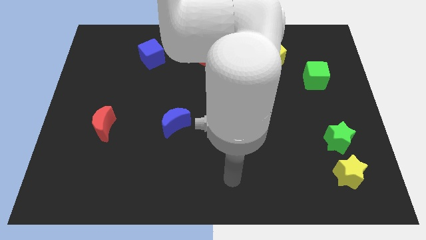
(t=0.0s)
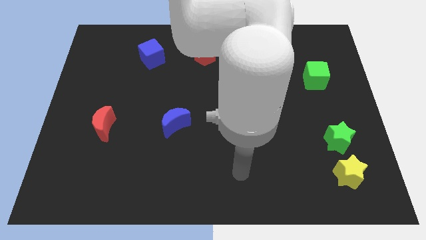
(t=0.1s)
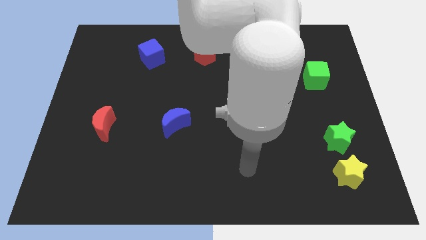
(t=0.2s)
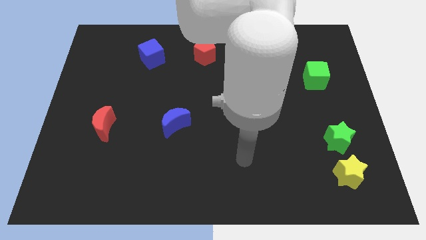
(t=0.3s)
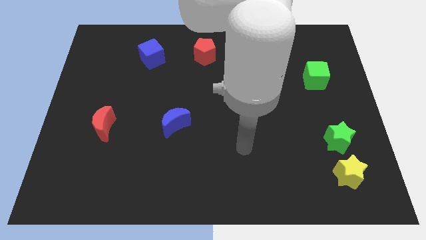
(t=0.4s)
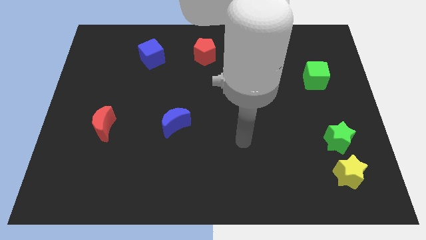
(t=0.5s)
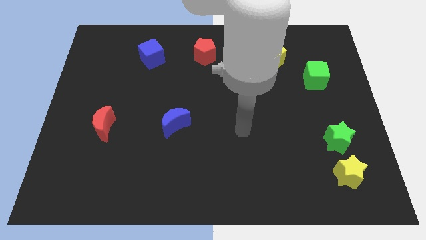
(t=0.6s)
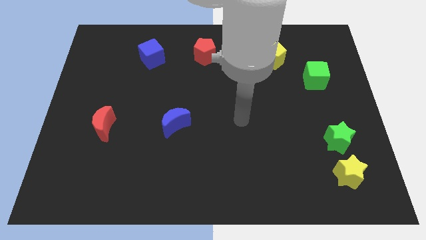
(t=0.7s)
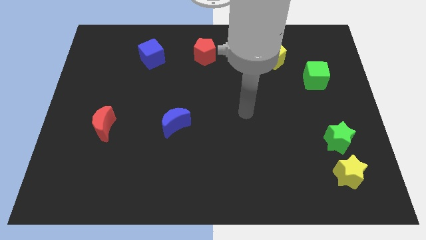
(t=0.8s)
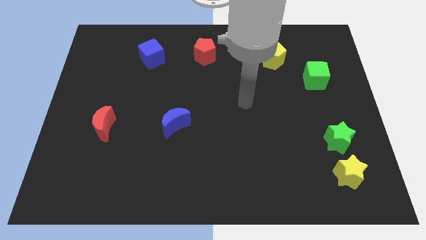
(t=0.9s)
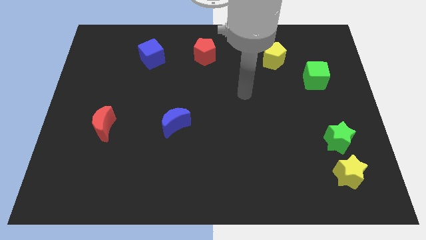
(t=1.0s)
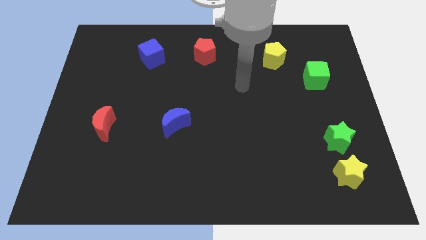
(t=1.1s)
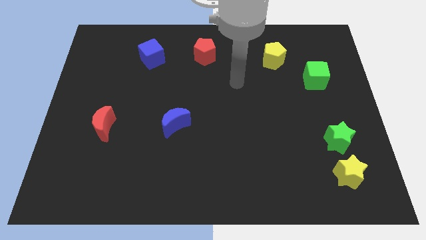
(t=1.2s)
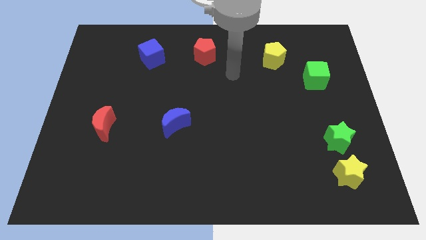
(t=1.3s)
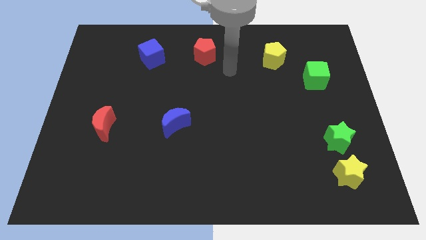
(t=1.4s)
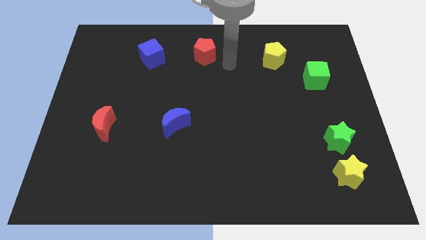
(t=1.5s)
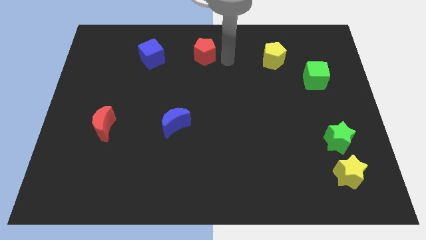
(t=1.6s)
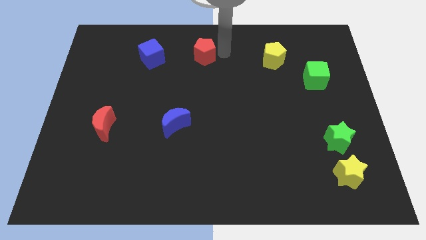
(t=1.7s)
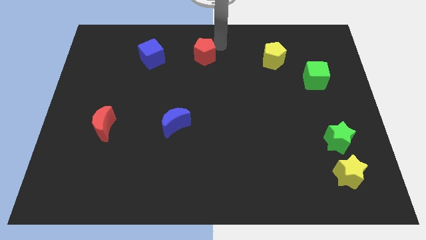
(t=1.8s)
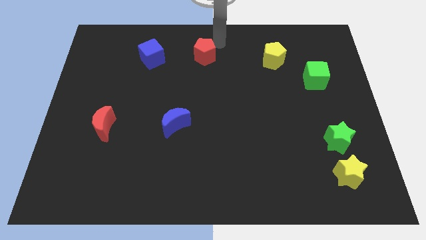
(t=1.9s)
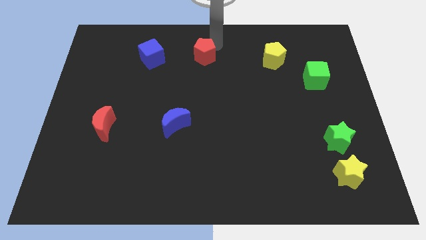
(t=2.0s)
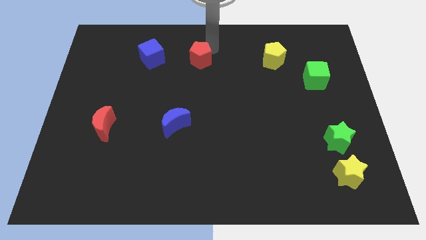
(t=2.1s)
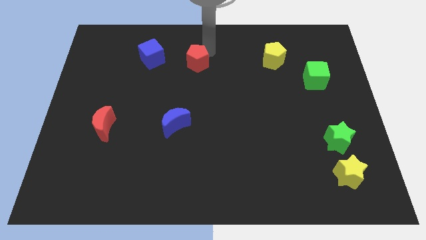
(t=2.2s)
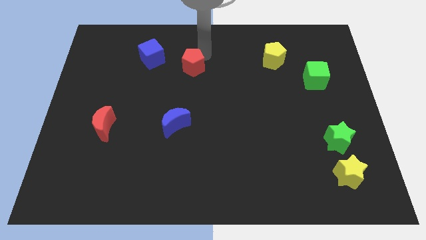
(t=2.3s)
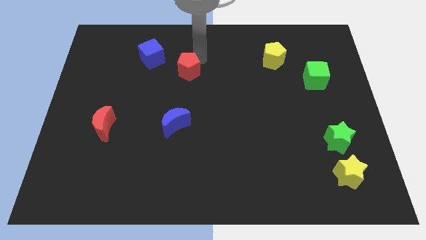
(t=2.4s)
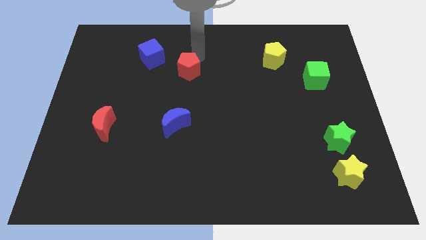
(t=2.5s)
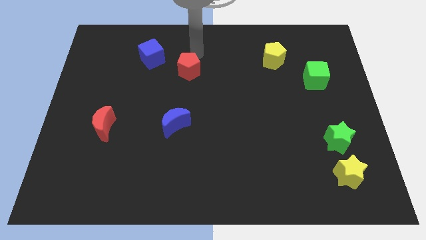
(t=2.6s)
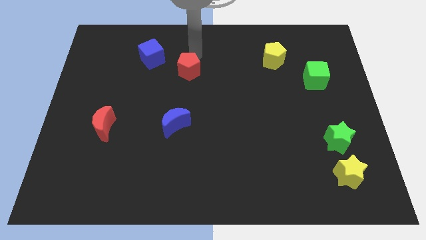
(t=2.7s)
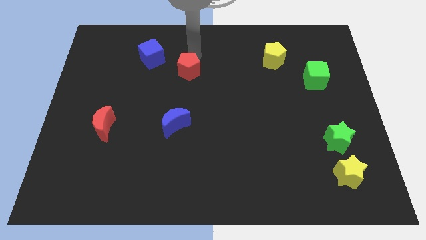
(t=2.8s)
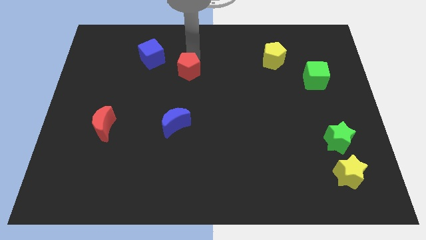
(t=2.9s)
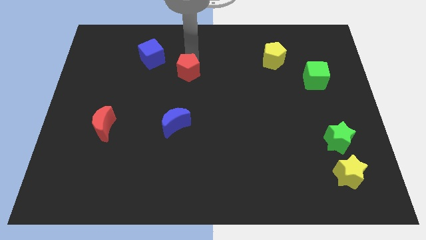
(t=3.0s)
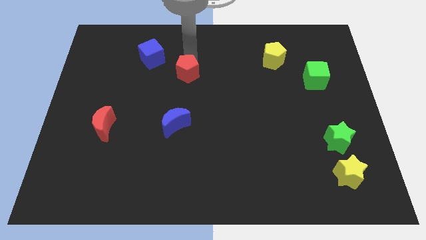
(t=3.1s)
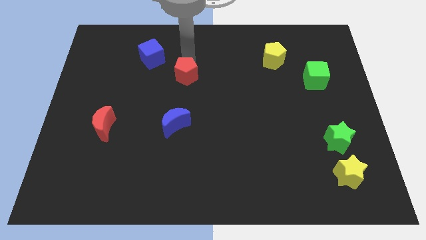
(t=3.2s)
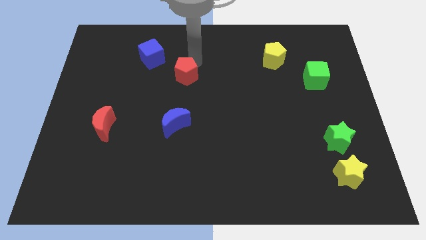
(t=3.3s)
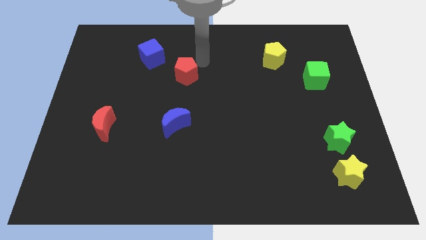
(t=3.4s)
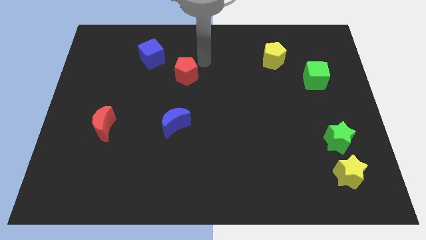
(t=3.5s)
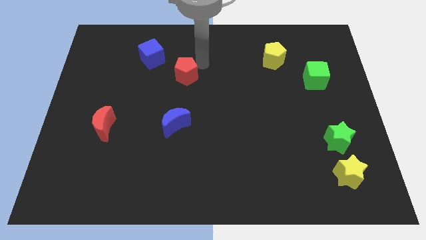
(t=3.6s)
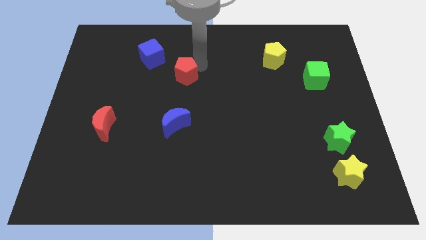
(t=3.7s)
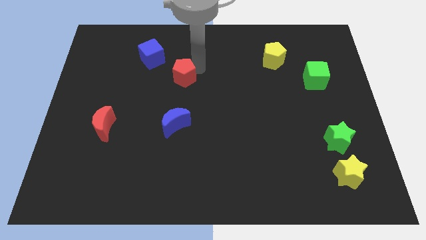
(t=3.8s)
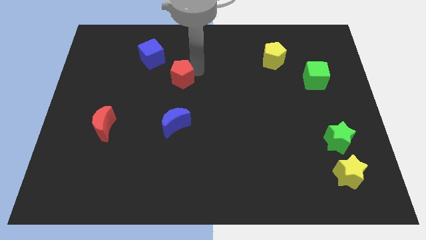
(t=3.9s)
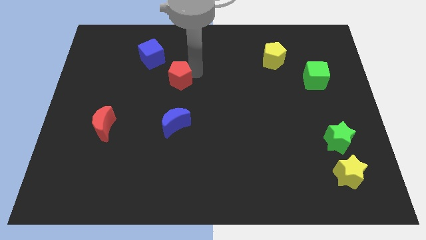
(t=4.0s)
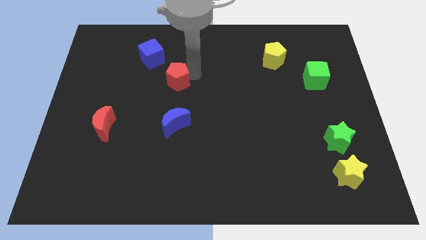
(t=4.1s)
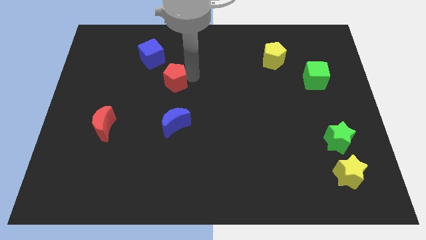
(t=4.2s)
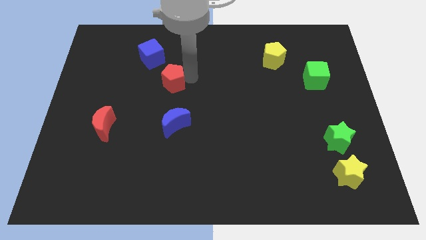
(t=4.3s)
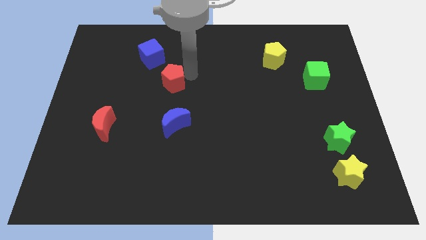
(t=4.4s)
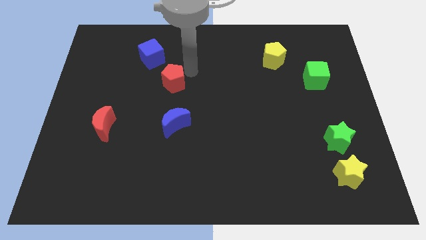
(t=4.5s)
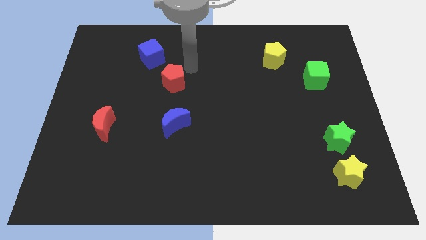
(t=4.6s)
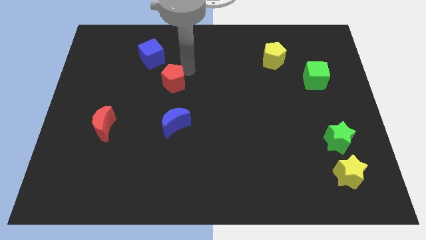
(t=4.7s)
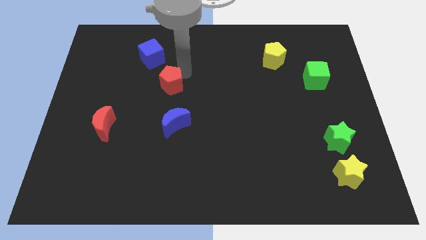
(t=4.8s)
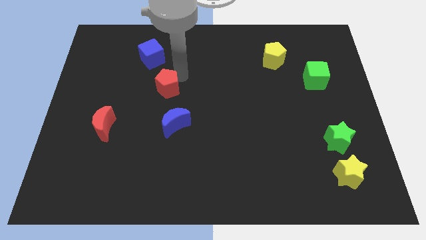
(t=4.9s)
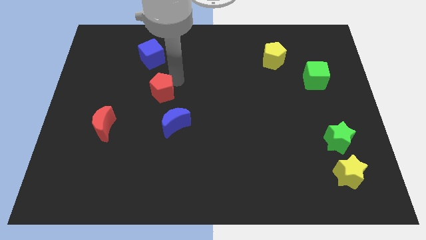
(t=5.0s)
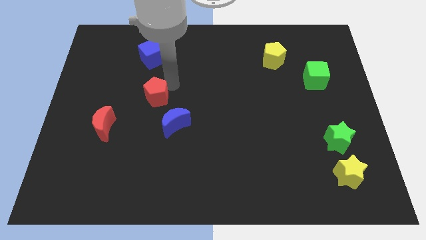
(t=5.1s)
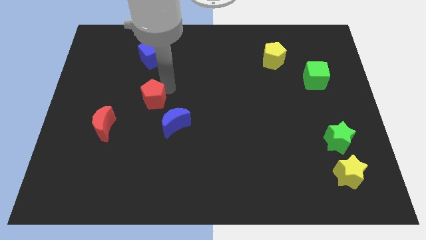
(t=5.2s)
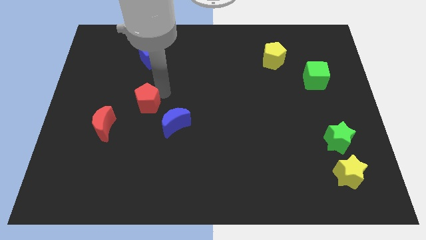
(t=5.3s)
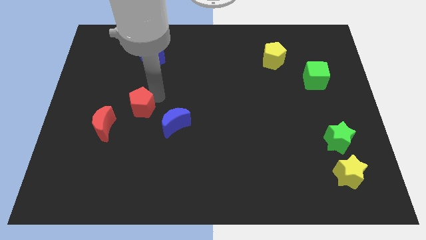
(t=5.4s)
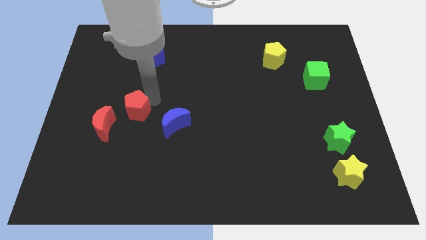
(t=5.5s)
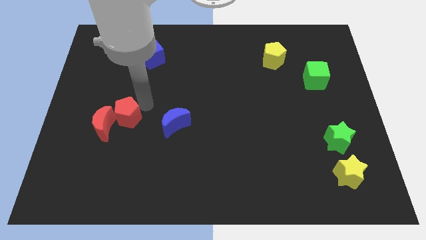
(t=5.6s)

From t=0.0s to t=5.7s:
push the red pentagon to the red moon
